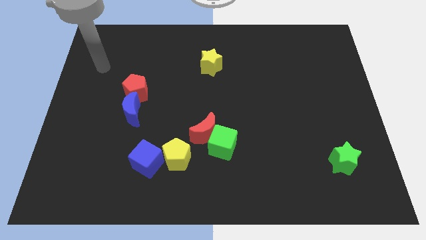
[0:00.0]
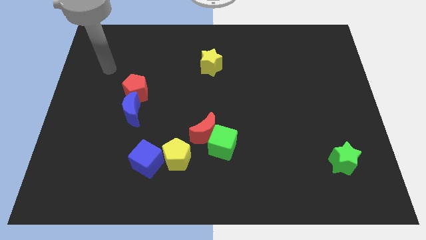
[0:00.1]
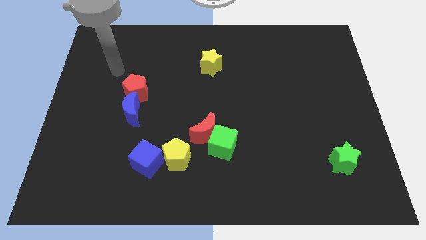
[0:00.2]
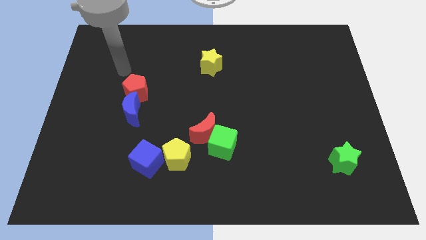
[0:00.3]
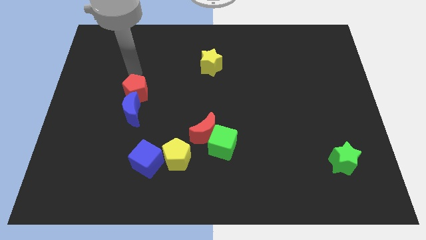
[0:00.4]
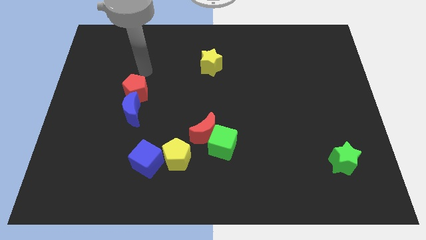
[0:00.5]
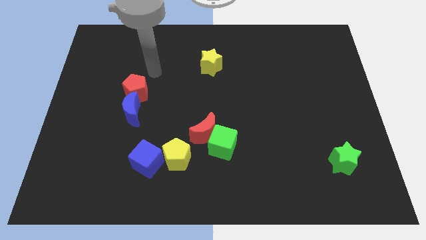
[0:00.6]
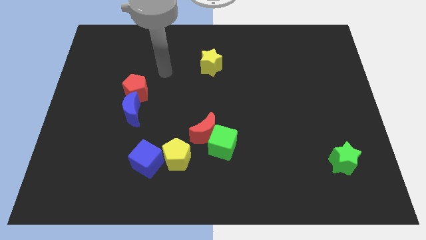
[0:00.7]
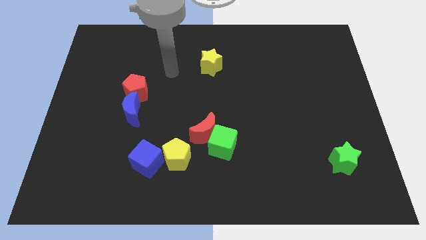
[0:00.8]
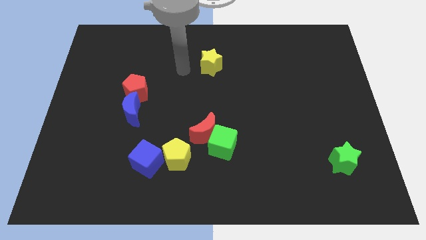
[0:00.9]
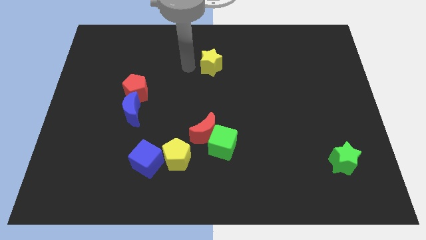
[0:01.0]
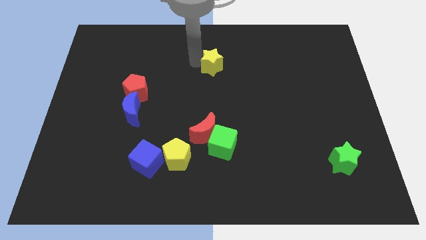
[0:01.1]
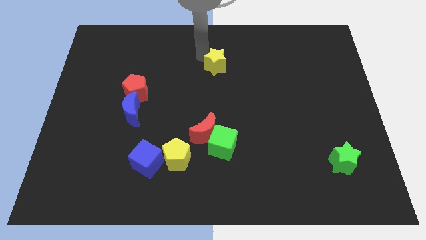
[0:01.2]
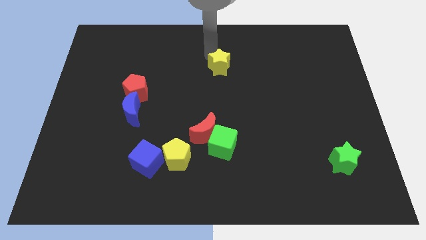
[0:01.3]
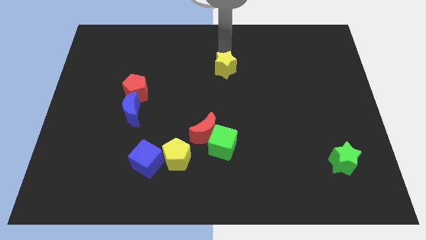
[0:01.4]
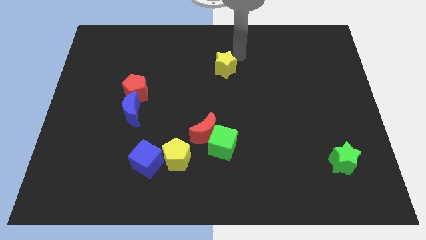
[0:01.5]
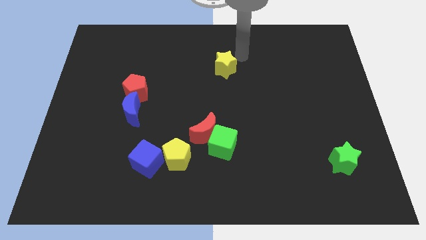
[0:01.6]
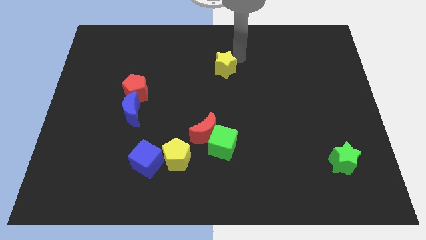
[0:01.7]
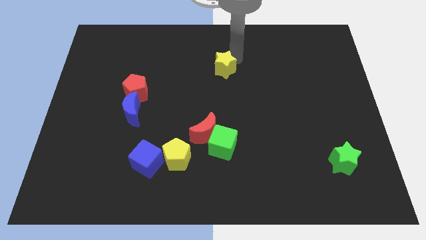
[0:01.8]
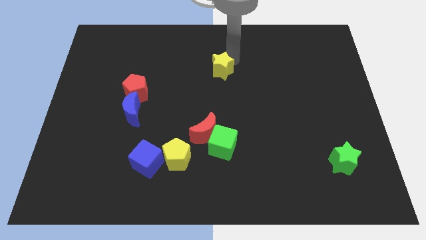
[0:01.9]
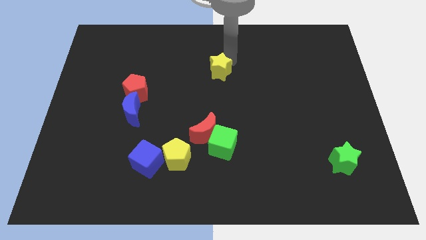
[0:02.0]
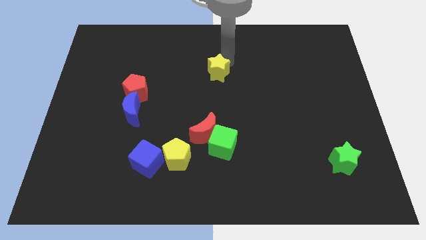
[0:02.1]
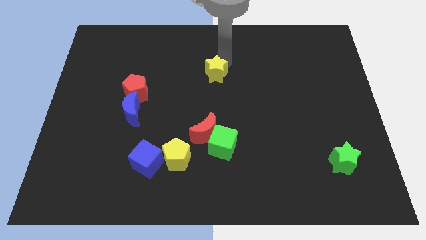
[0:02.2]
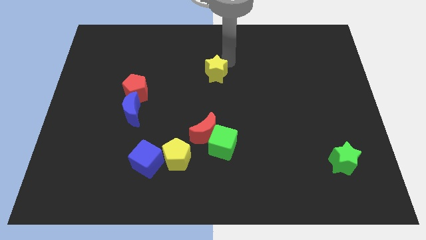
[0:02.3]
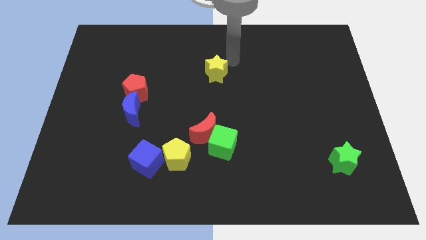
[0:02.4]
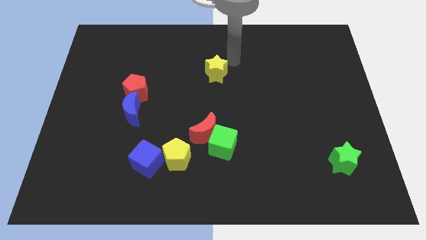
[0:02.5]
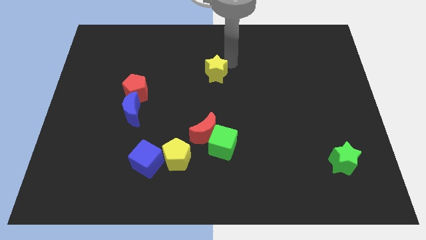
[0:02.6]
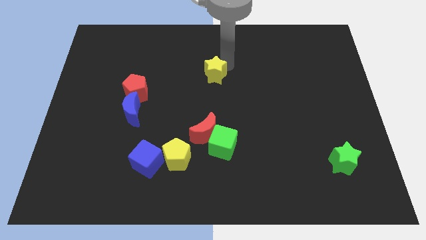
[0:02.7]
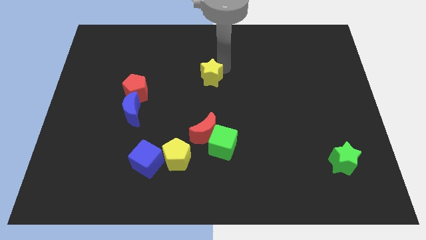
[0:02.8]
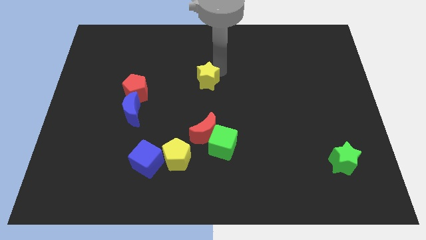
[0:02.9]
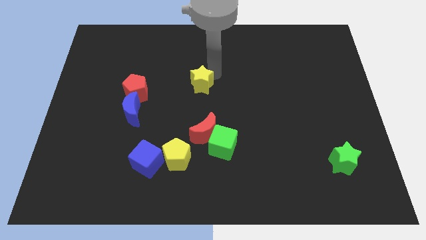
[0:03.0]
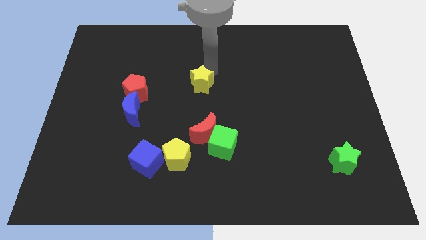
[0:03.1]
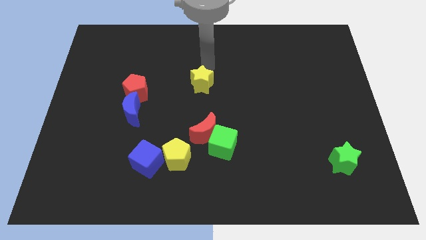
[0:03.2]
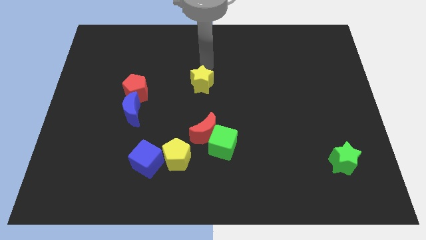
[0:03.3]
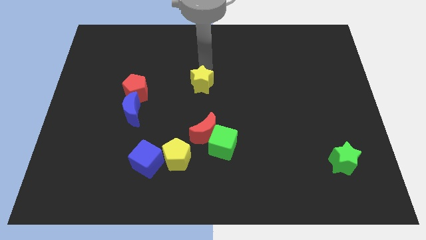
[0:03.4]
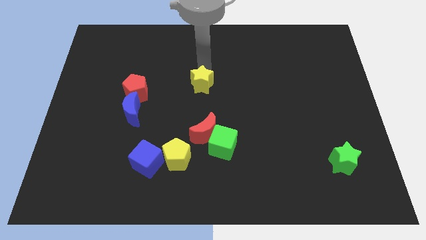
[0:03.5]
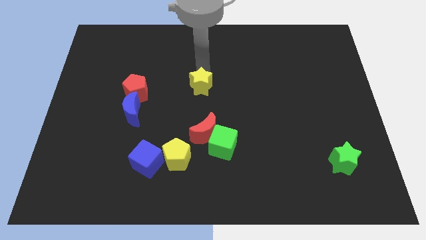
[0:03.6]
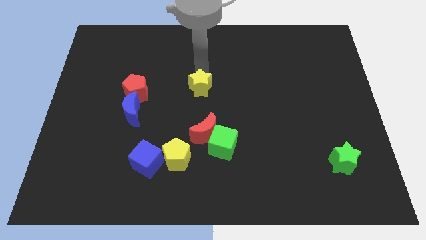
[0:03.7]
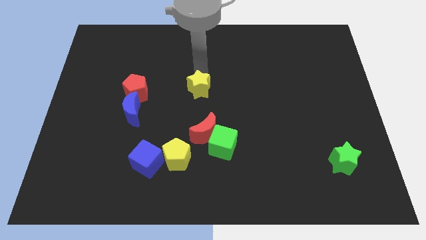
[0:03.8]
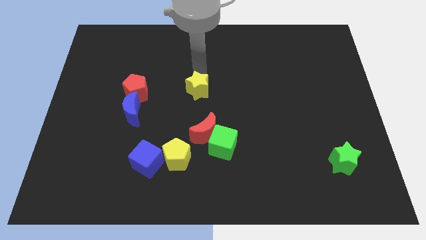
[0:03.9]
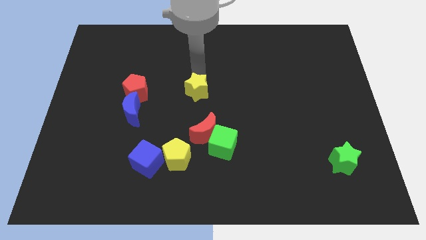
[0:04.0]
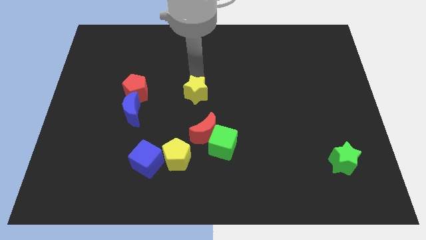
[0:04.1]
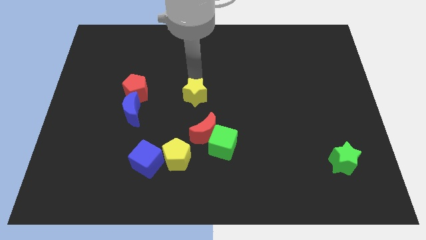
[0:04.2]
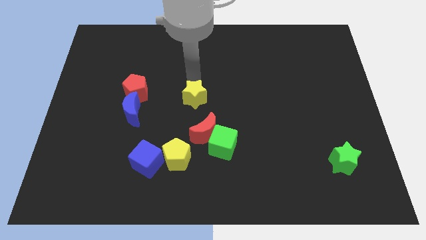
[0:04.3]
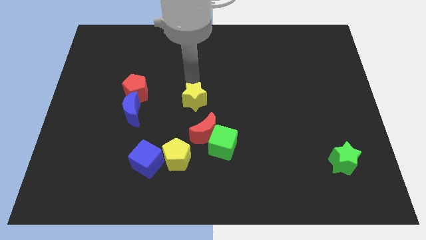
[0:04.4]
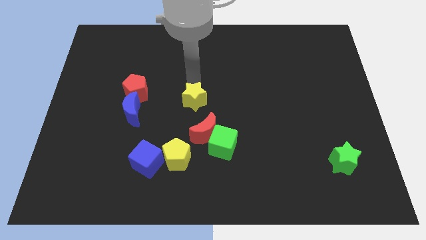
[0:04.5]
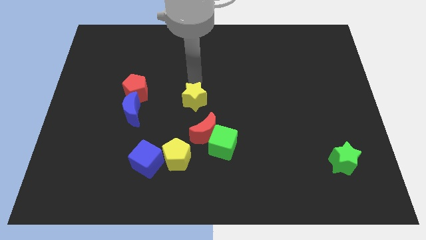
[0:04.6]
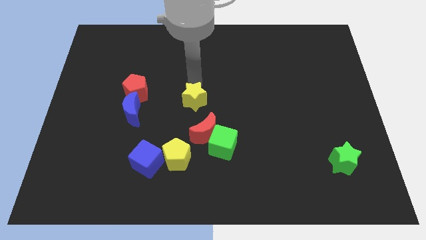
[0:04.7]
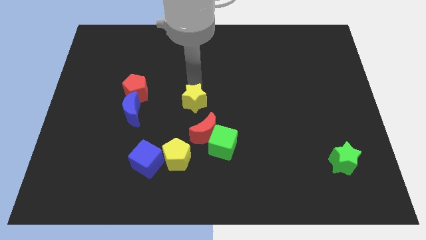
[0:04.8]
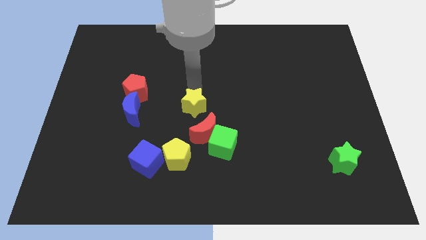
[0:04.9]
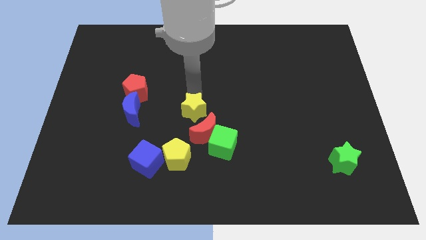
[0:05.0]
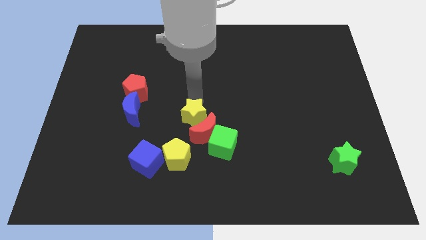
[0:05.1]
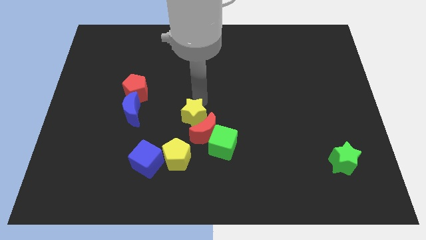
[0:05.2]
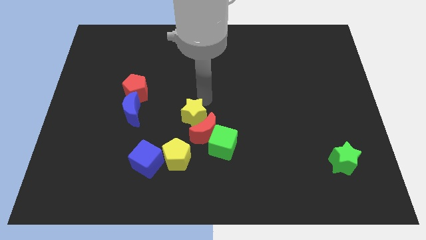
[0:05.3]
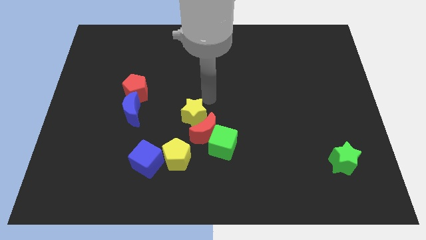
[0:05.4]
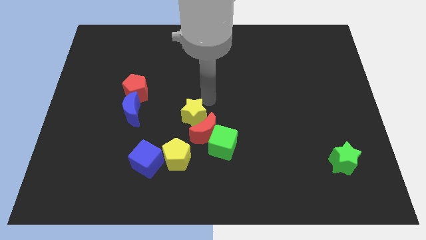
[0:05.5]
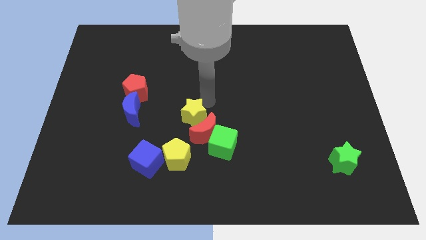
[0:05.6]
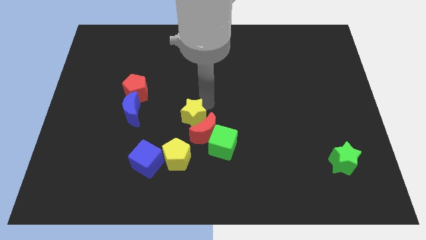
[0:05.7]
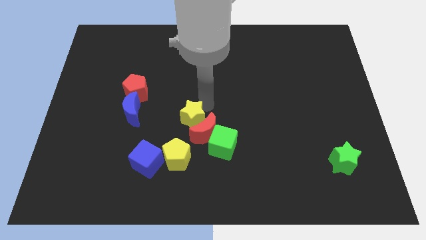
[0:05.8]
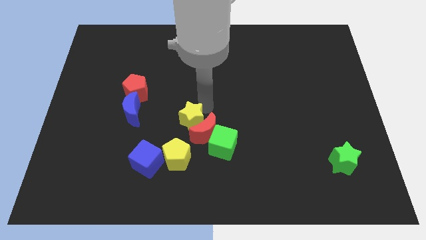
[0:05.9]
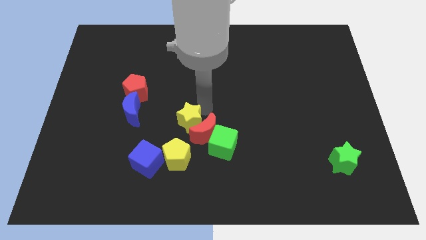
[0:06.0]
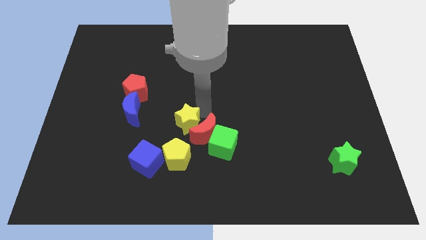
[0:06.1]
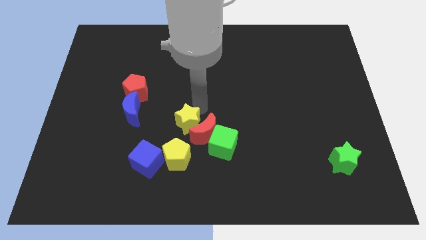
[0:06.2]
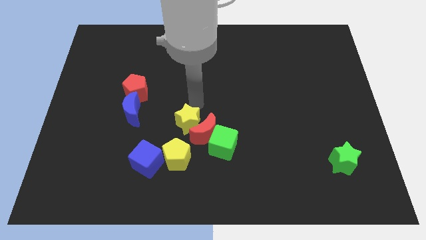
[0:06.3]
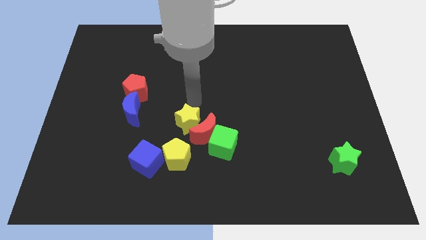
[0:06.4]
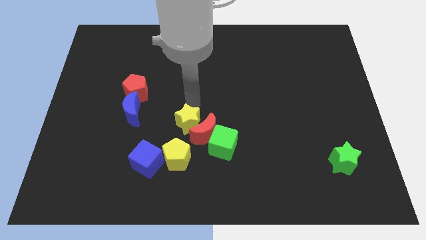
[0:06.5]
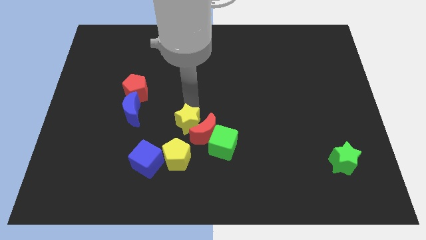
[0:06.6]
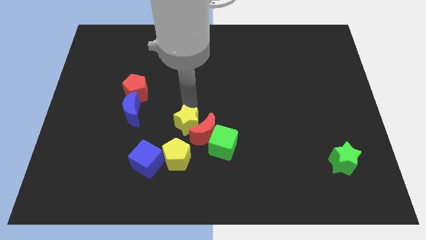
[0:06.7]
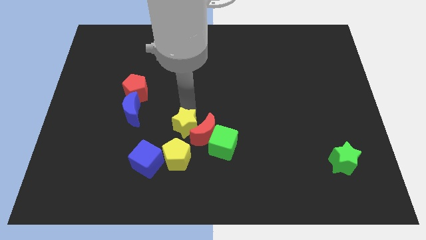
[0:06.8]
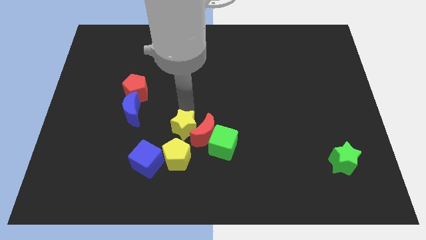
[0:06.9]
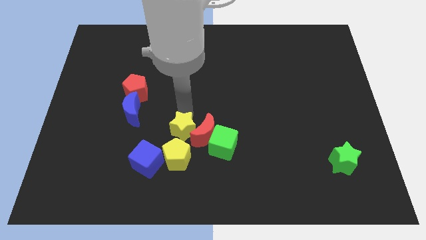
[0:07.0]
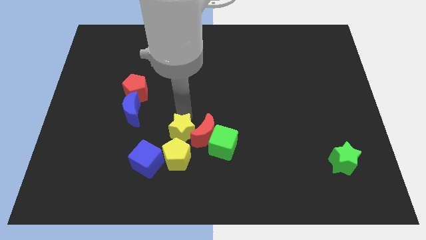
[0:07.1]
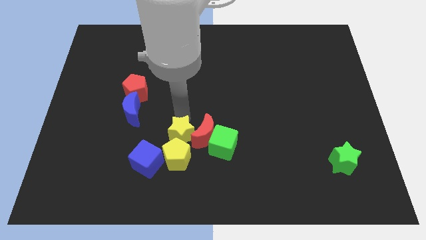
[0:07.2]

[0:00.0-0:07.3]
move the yellow star to the yellow pentagon

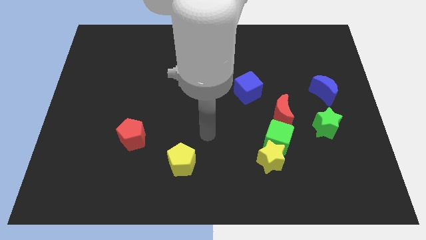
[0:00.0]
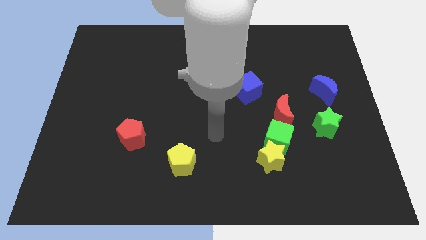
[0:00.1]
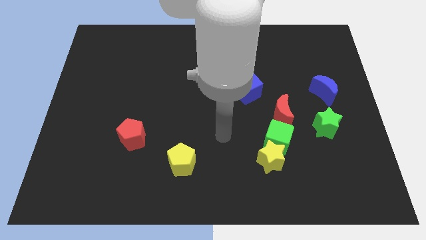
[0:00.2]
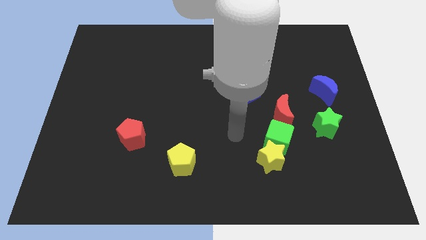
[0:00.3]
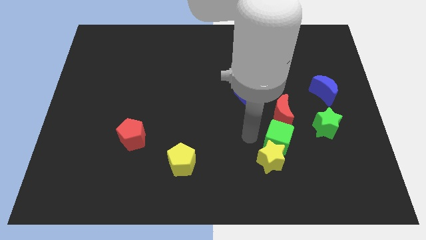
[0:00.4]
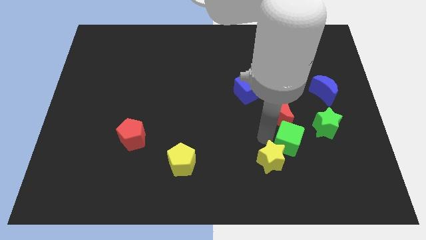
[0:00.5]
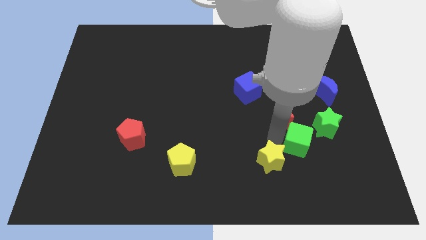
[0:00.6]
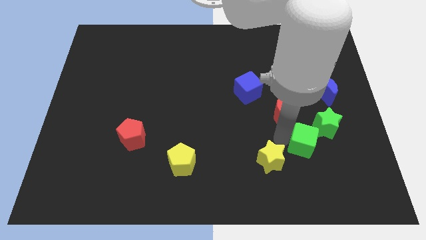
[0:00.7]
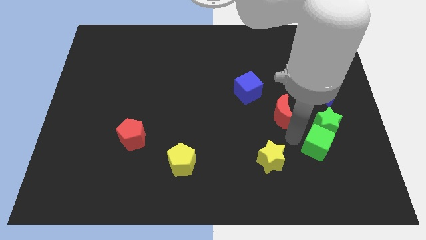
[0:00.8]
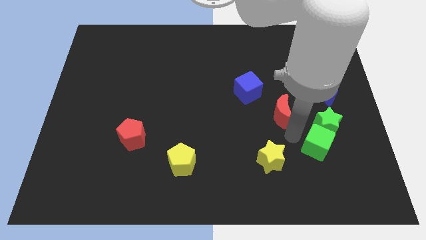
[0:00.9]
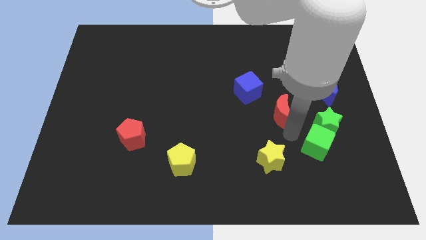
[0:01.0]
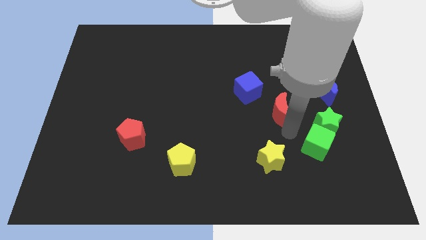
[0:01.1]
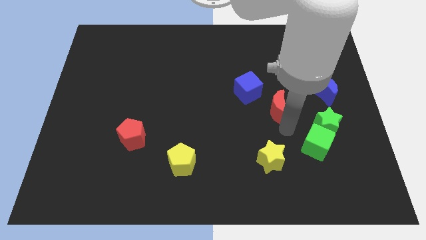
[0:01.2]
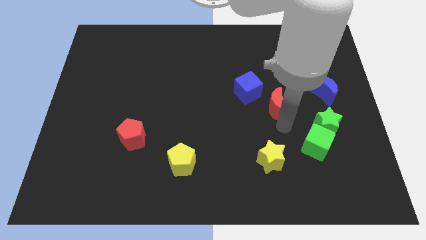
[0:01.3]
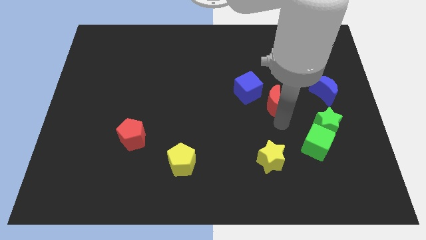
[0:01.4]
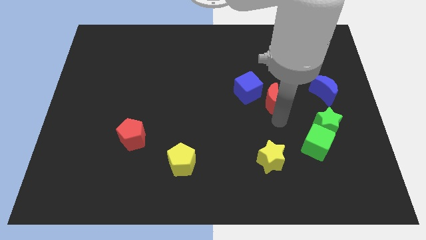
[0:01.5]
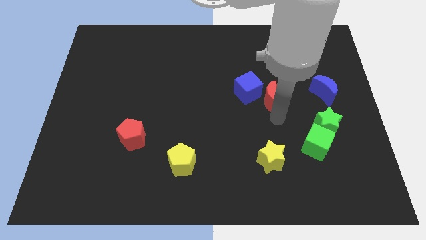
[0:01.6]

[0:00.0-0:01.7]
slide the red moon to the blue cube
